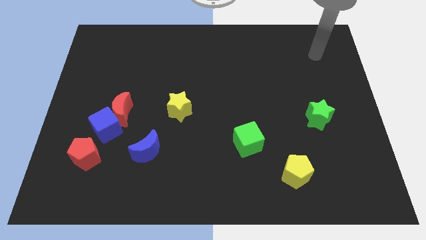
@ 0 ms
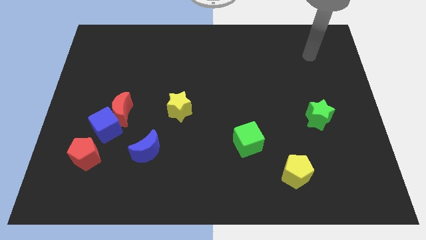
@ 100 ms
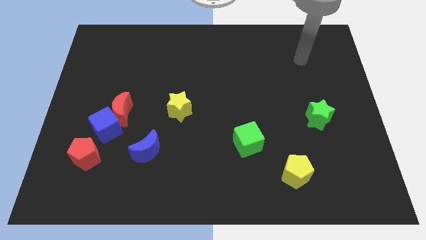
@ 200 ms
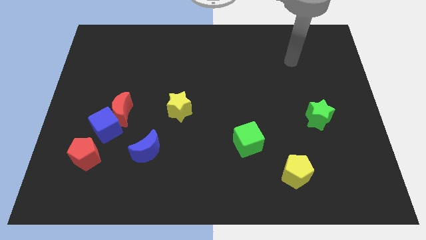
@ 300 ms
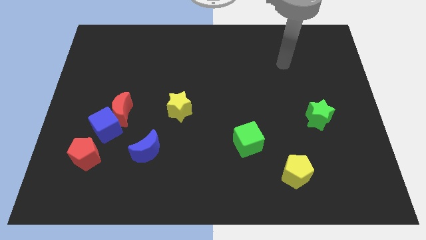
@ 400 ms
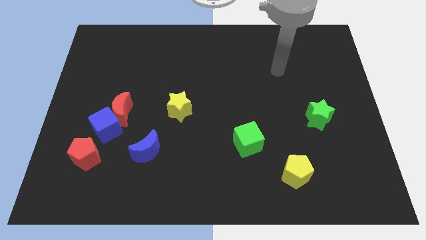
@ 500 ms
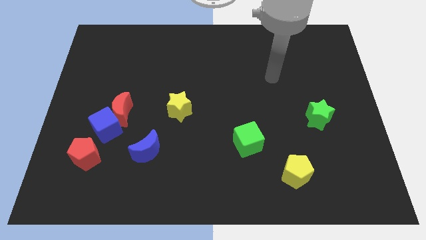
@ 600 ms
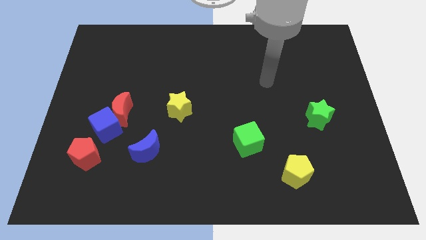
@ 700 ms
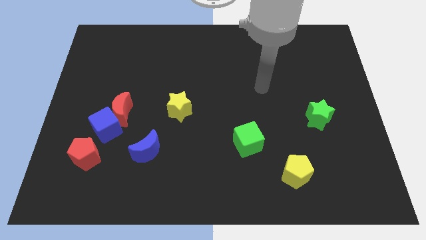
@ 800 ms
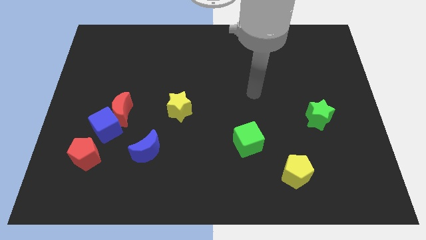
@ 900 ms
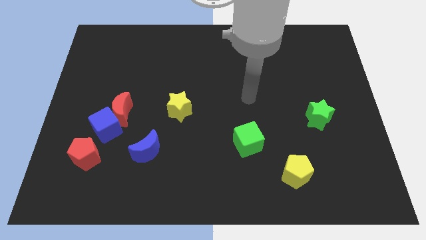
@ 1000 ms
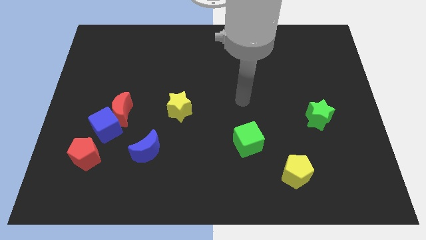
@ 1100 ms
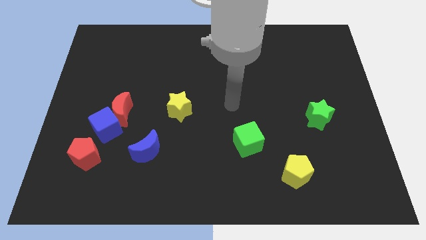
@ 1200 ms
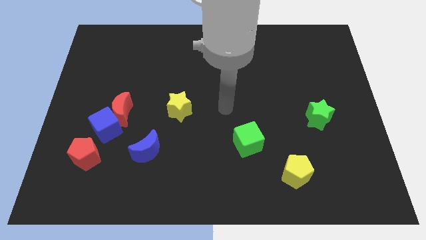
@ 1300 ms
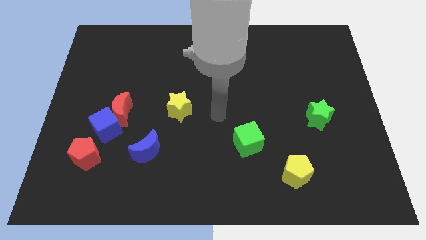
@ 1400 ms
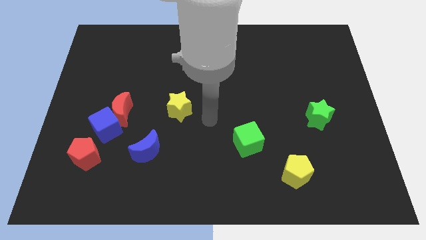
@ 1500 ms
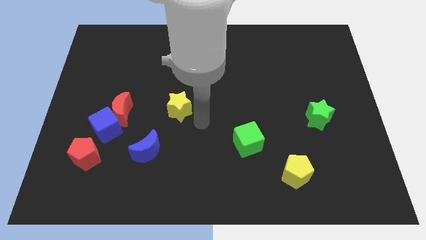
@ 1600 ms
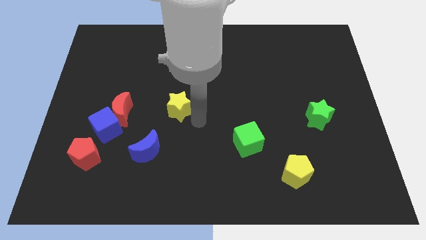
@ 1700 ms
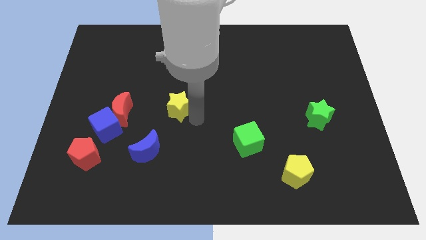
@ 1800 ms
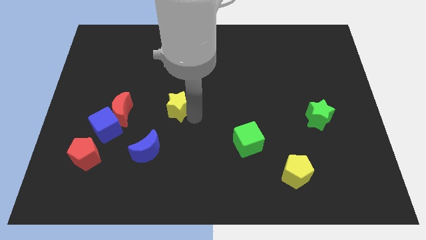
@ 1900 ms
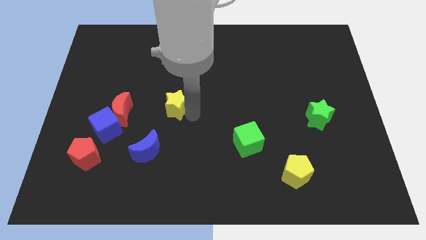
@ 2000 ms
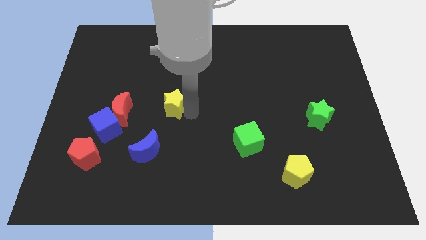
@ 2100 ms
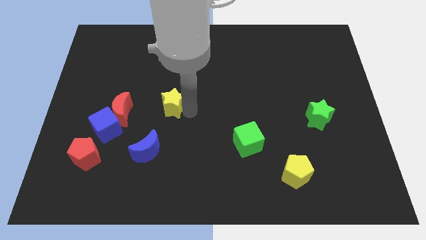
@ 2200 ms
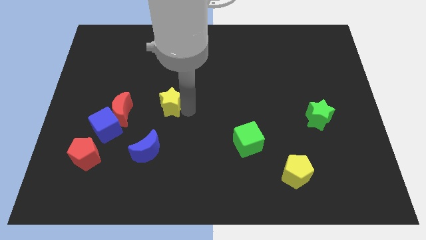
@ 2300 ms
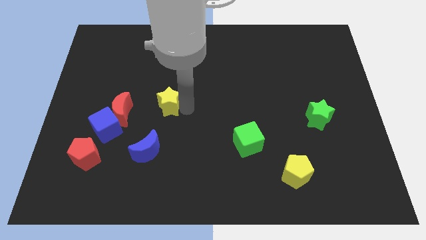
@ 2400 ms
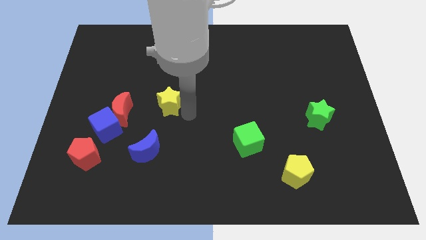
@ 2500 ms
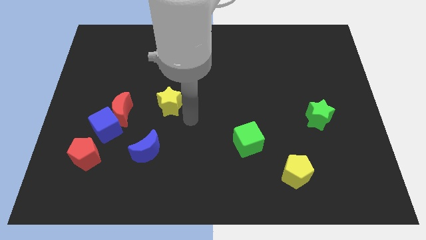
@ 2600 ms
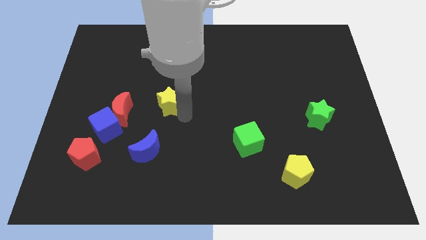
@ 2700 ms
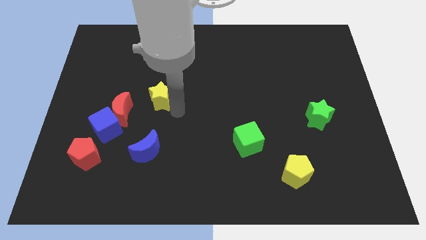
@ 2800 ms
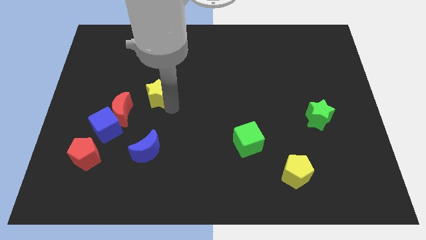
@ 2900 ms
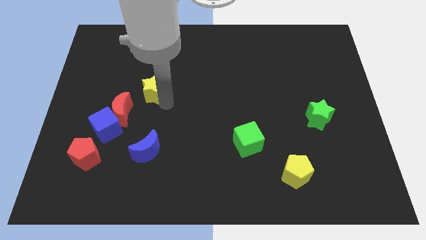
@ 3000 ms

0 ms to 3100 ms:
move the yellow star up and left slightly

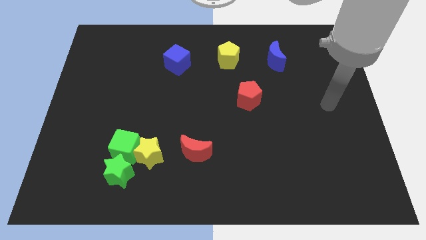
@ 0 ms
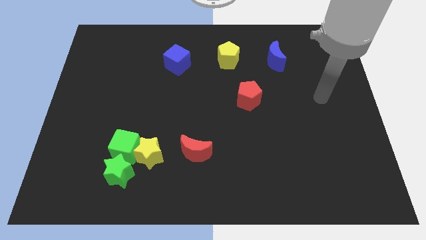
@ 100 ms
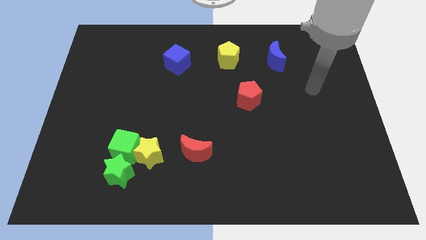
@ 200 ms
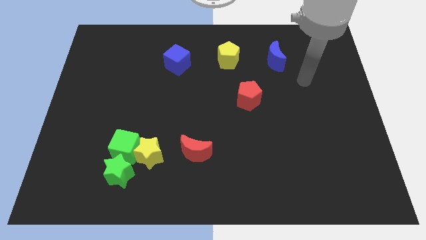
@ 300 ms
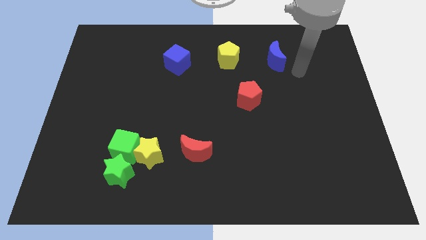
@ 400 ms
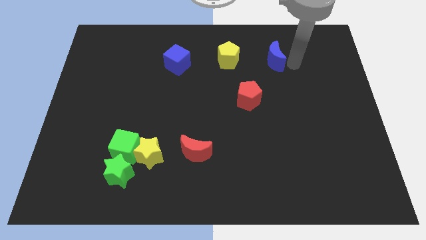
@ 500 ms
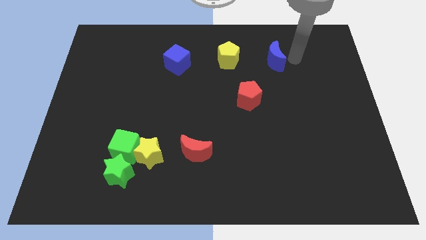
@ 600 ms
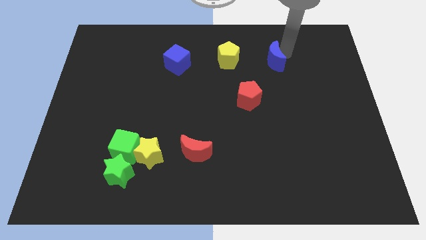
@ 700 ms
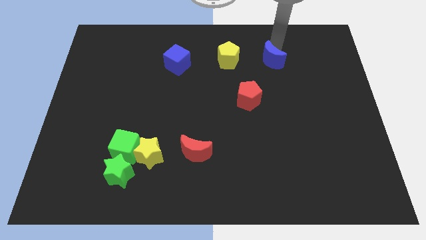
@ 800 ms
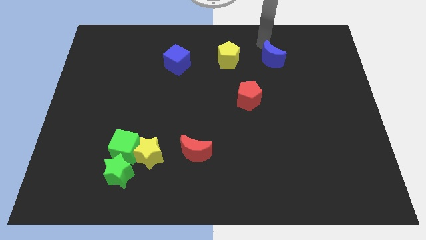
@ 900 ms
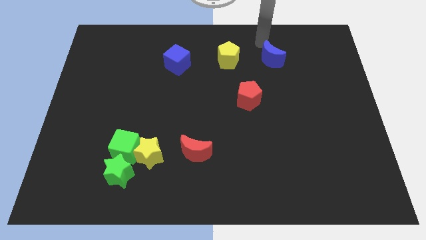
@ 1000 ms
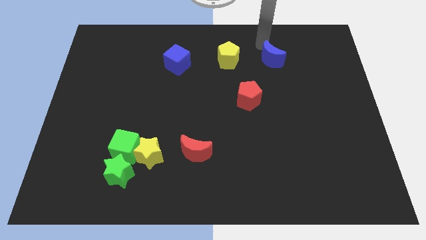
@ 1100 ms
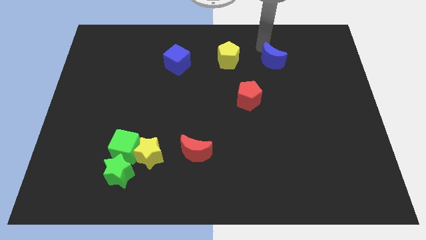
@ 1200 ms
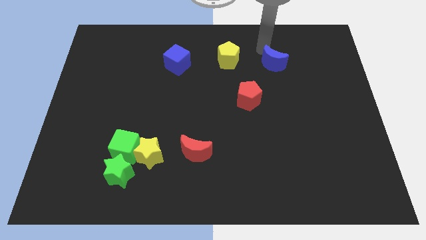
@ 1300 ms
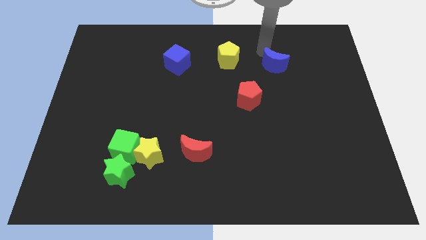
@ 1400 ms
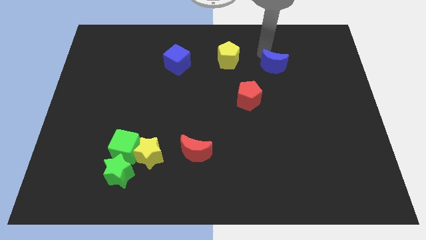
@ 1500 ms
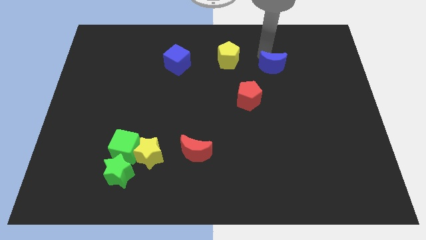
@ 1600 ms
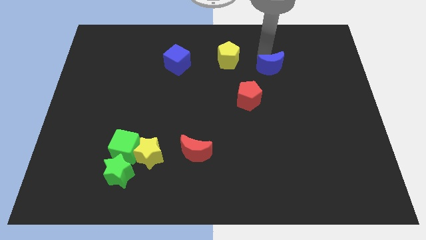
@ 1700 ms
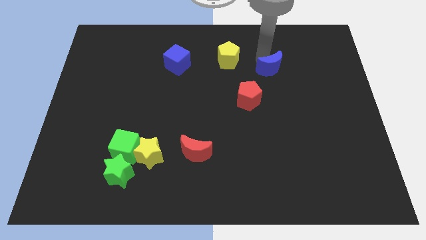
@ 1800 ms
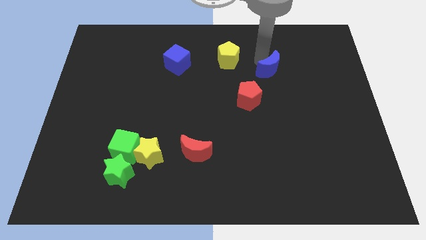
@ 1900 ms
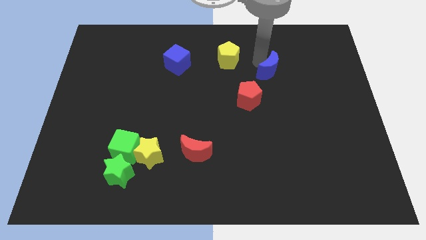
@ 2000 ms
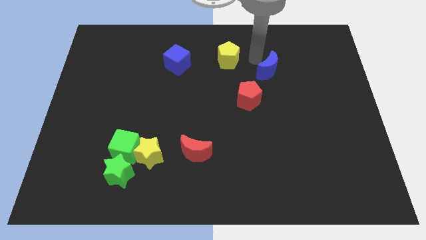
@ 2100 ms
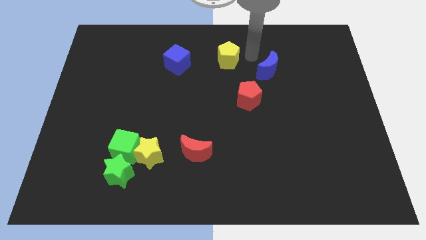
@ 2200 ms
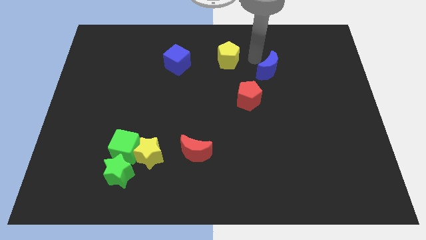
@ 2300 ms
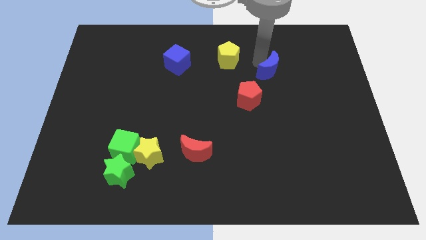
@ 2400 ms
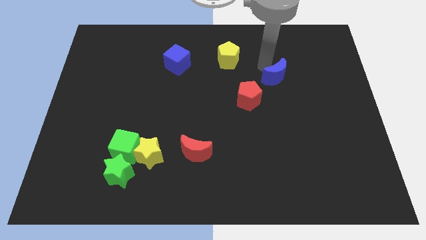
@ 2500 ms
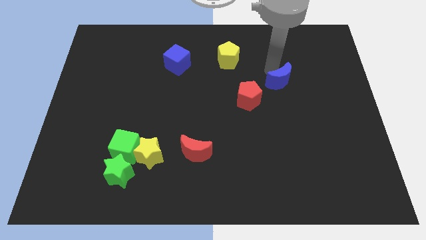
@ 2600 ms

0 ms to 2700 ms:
slightly slide the blue moon down

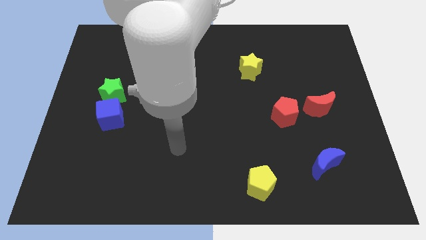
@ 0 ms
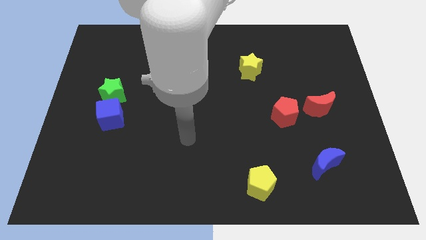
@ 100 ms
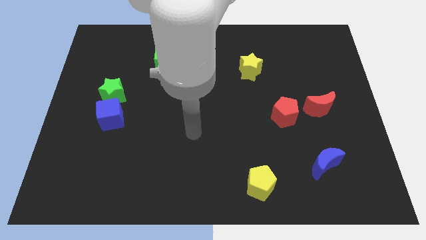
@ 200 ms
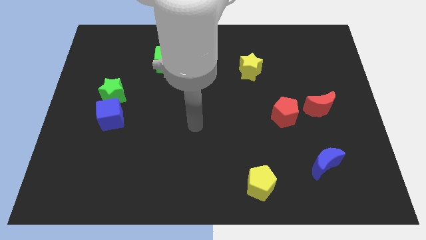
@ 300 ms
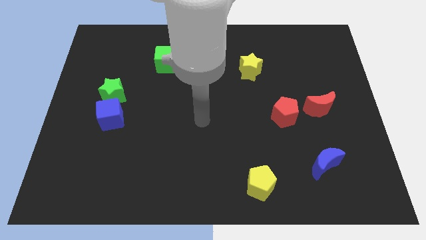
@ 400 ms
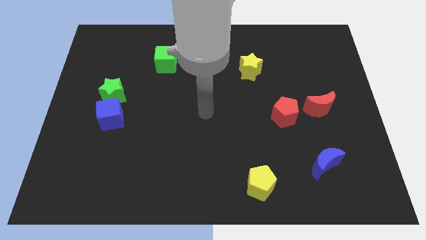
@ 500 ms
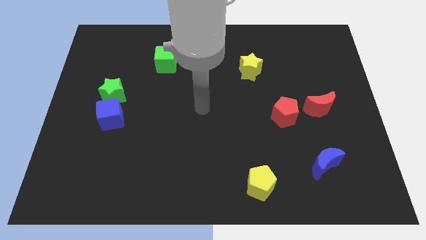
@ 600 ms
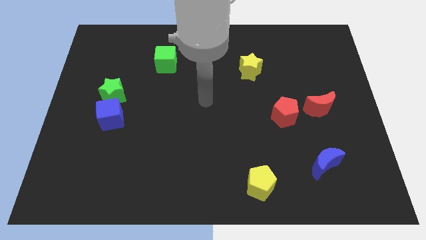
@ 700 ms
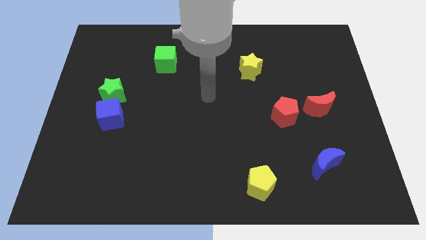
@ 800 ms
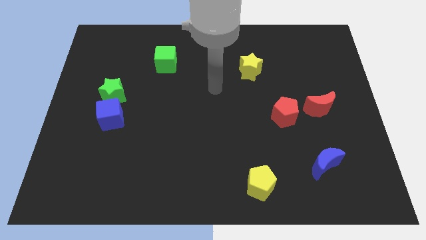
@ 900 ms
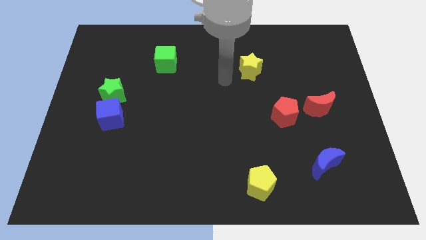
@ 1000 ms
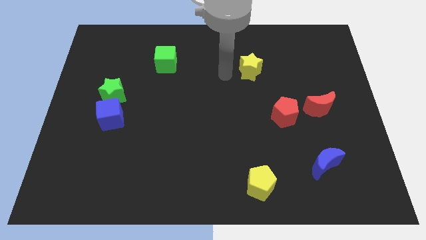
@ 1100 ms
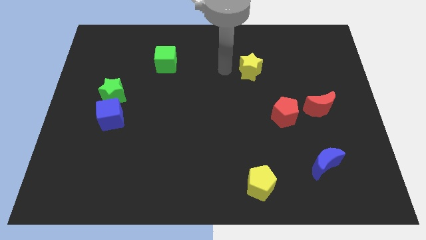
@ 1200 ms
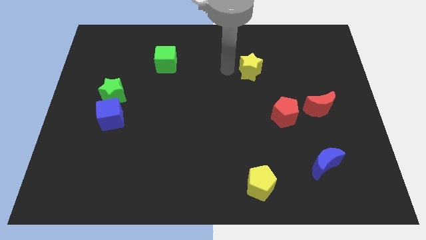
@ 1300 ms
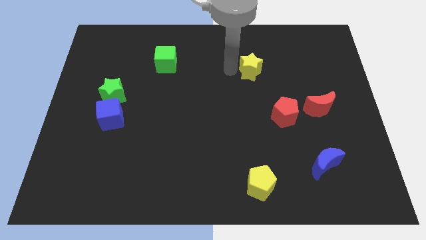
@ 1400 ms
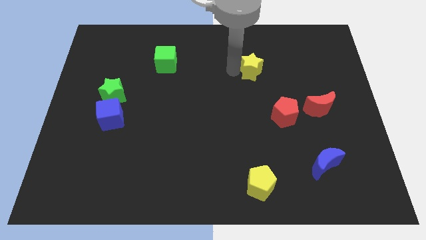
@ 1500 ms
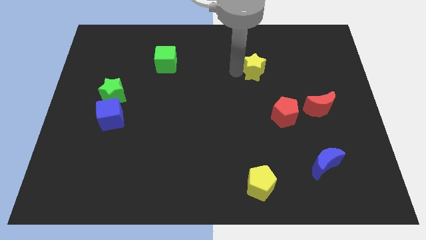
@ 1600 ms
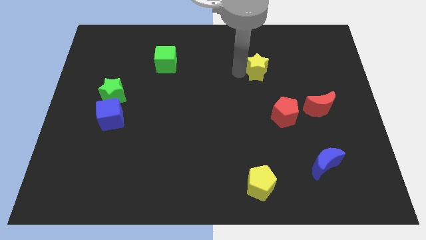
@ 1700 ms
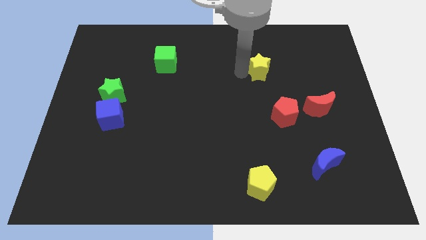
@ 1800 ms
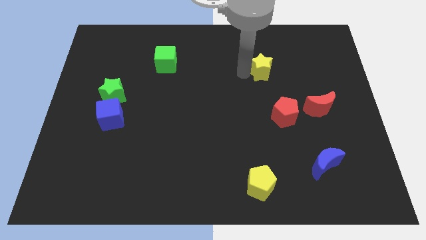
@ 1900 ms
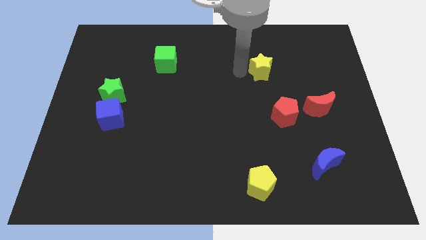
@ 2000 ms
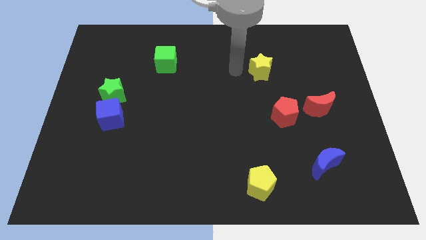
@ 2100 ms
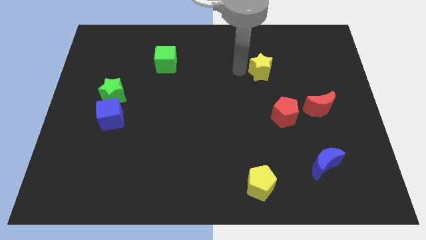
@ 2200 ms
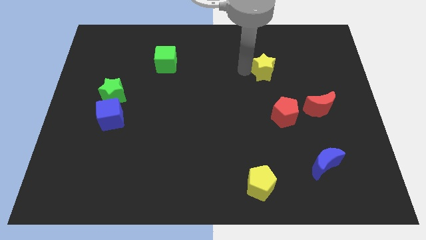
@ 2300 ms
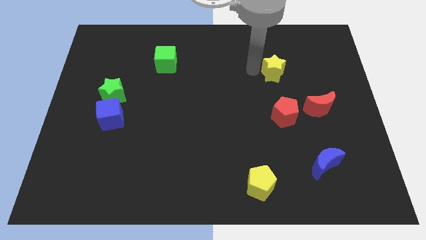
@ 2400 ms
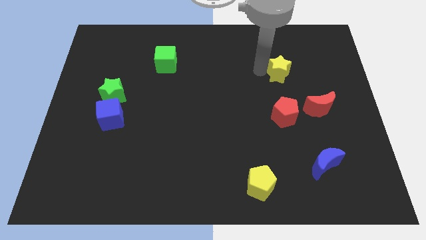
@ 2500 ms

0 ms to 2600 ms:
push the yellow star right a little bit
